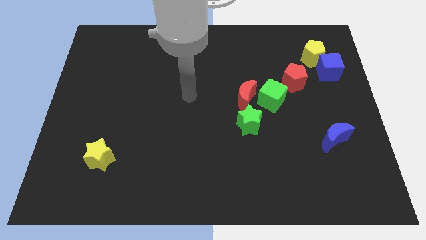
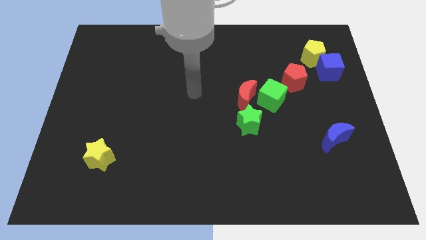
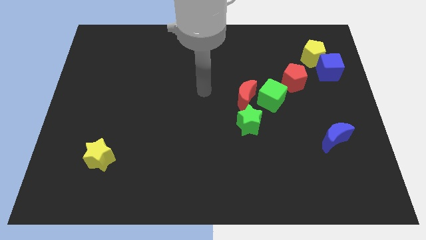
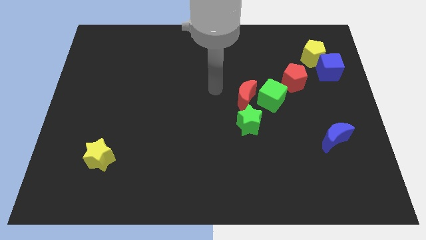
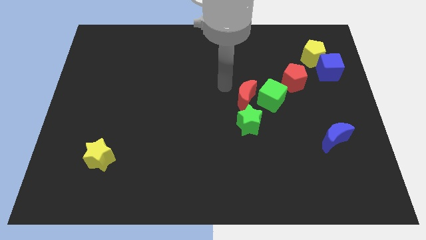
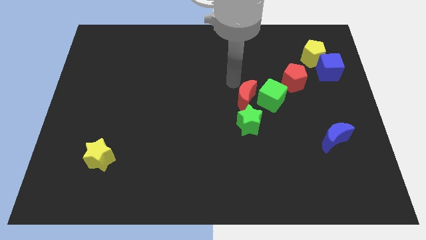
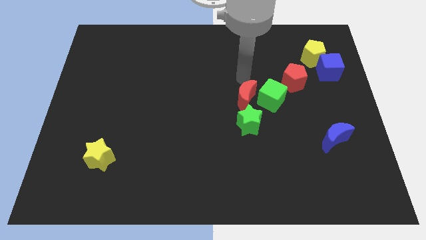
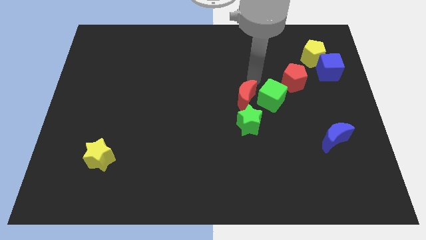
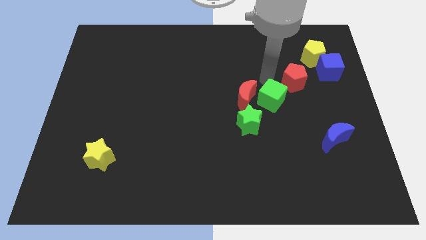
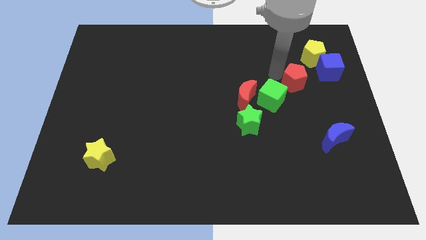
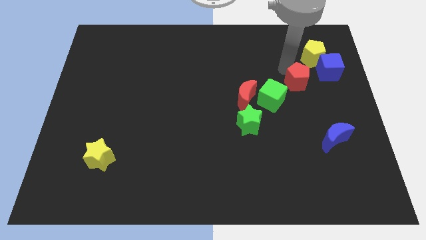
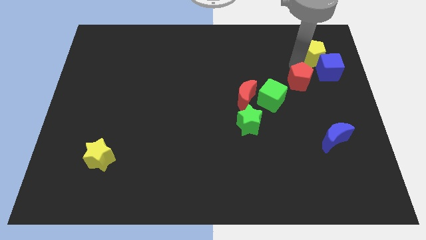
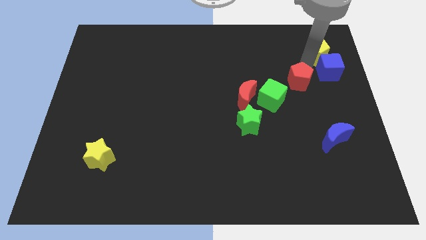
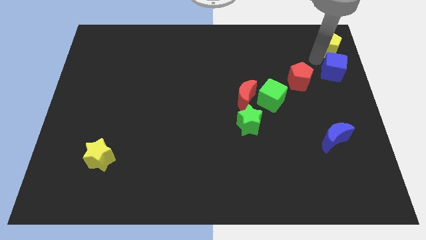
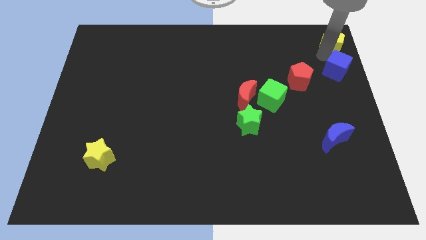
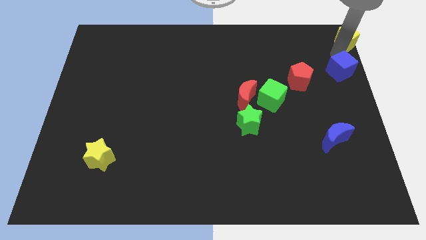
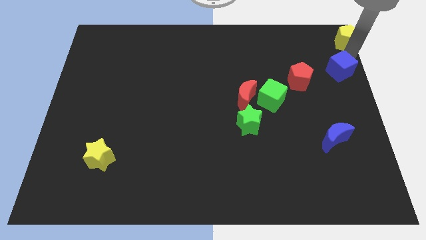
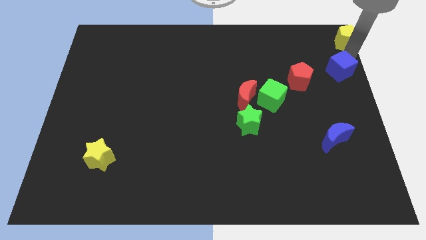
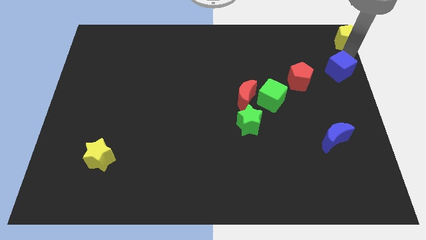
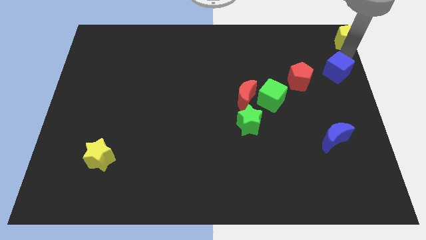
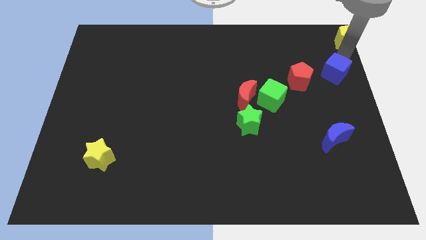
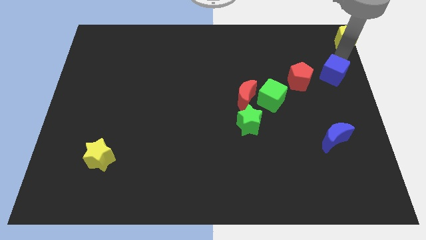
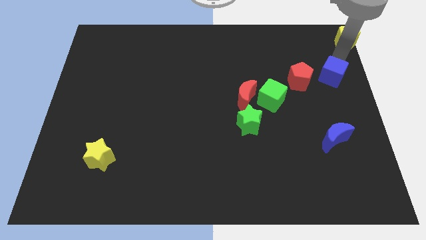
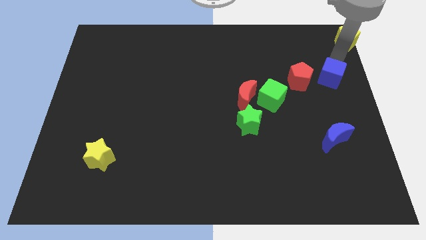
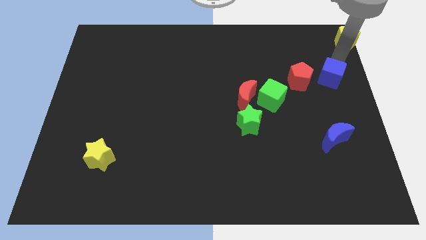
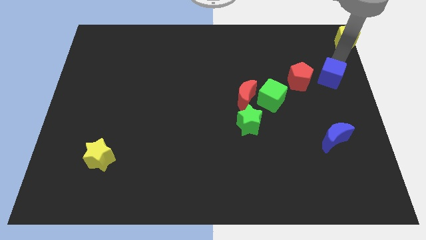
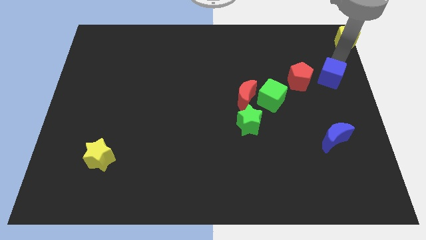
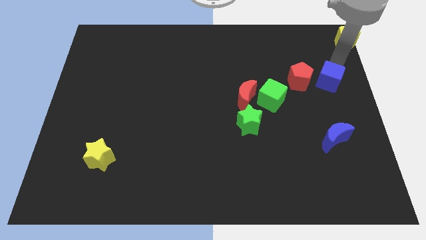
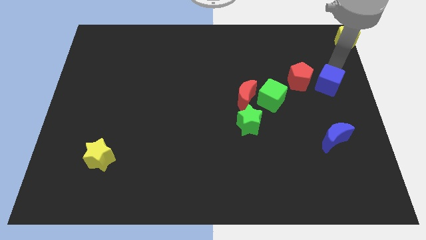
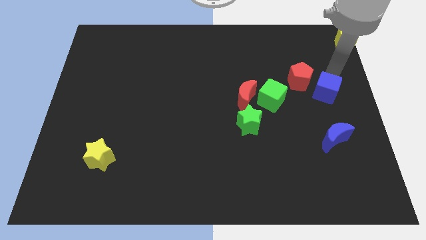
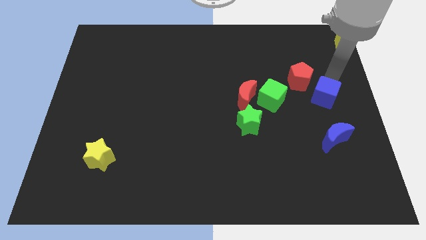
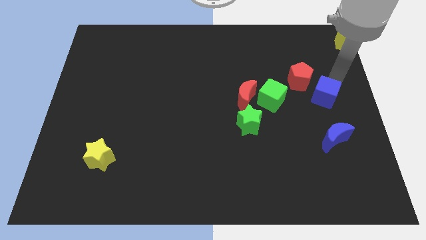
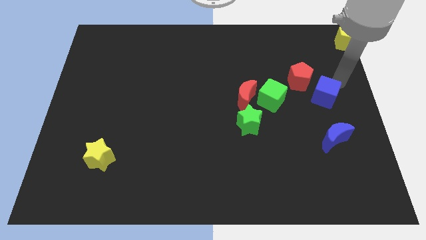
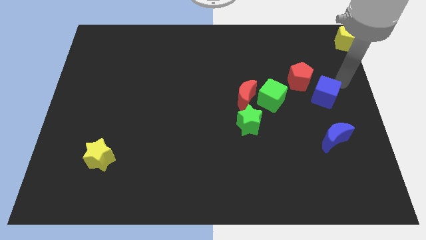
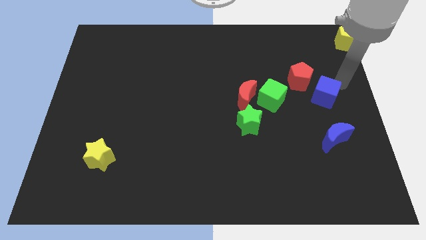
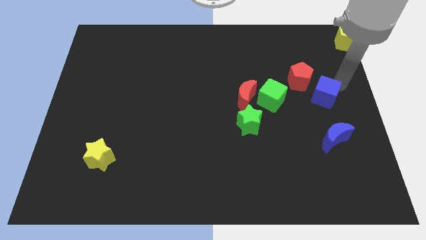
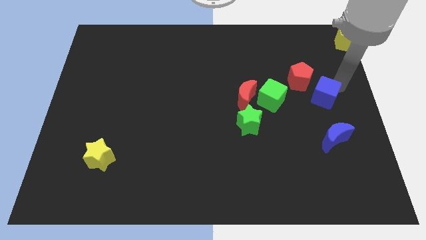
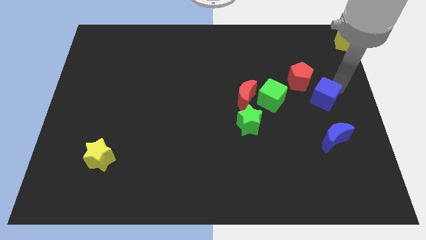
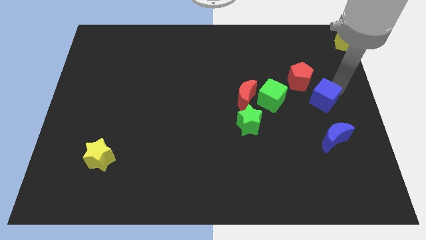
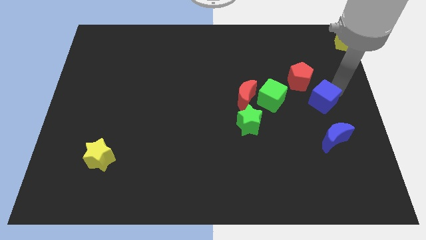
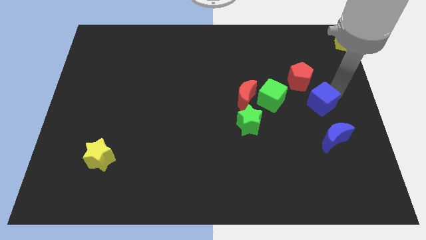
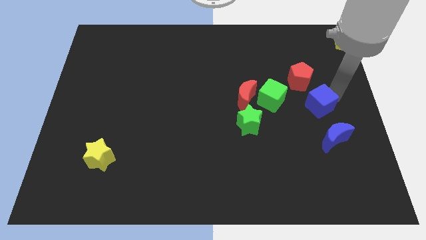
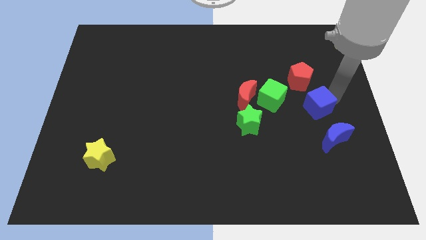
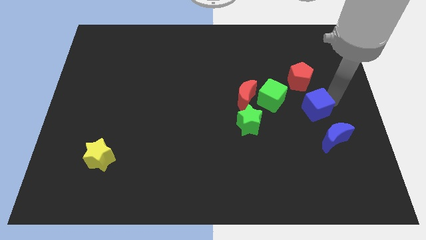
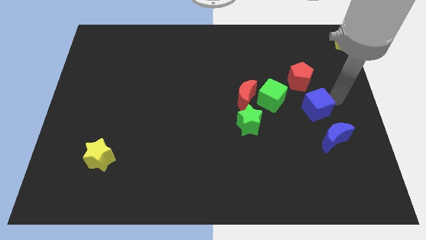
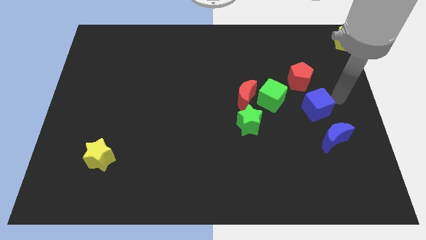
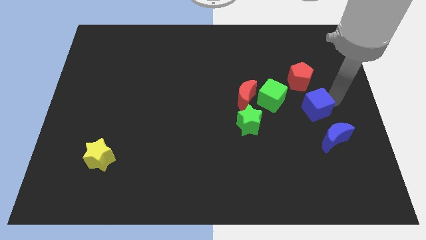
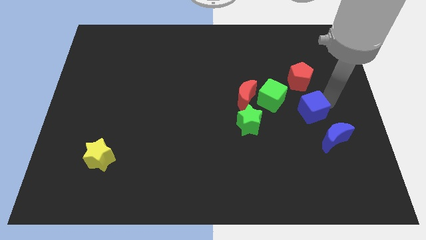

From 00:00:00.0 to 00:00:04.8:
put the blue cube to the bottom right of the green cube

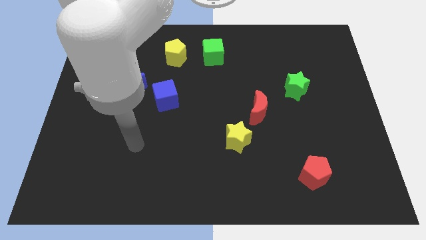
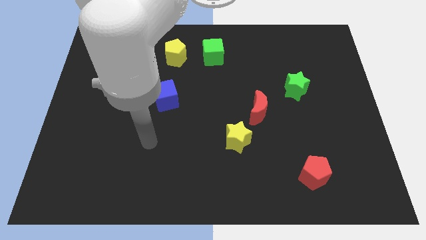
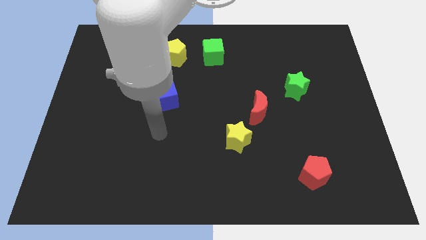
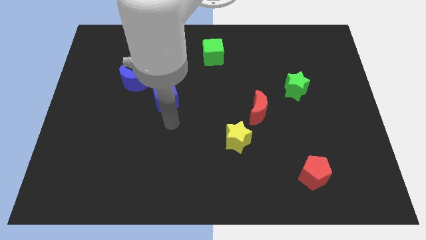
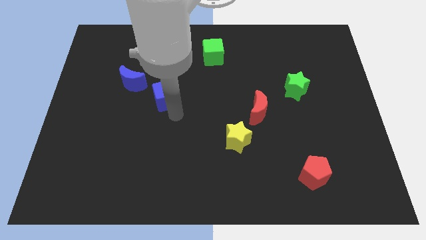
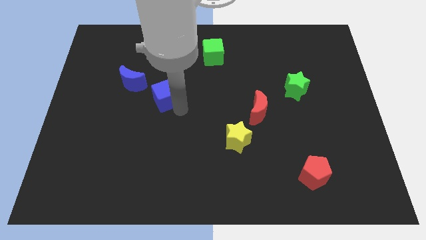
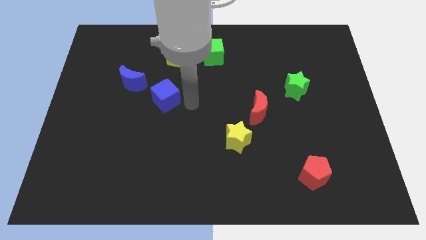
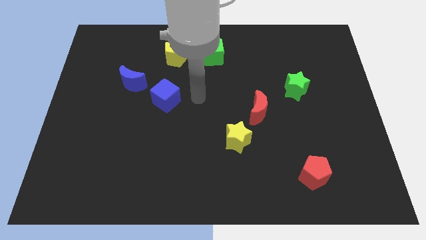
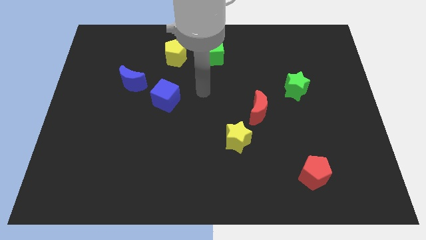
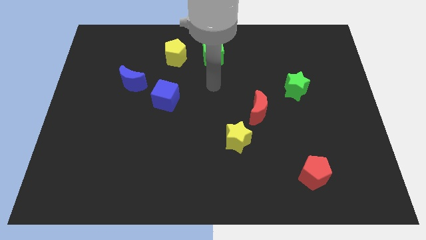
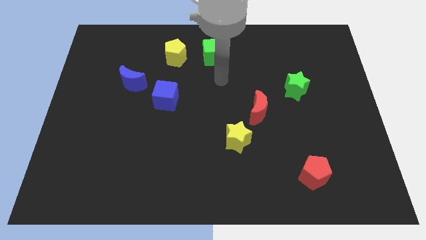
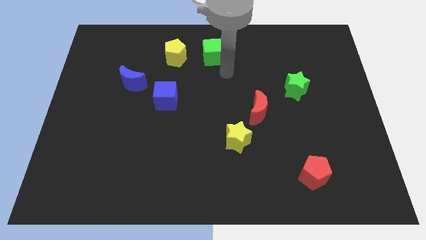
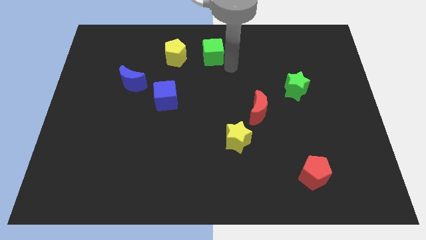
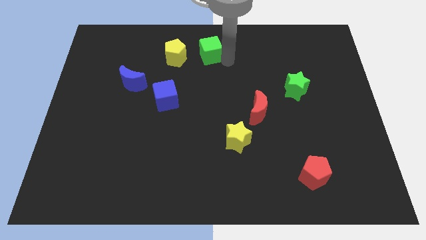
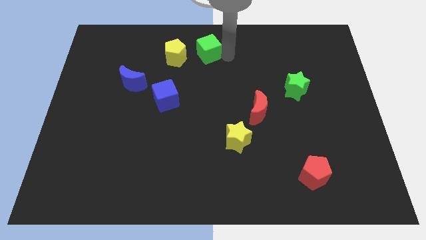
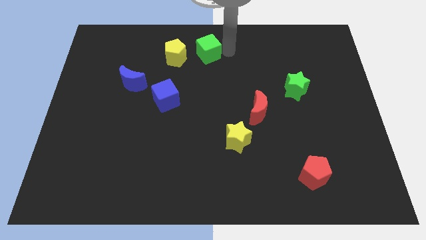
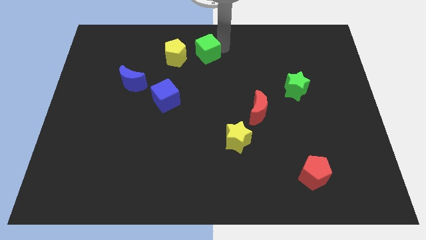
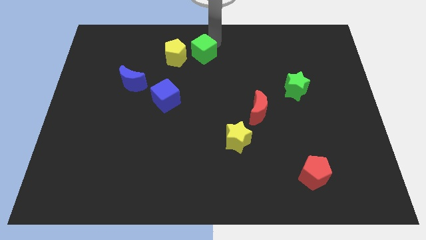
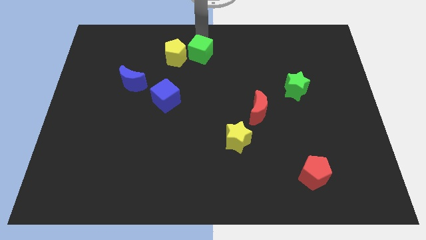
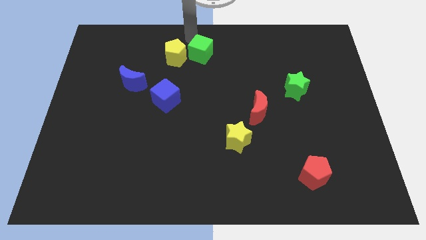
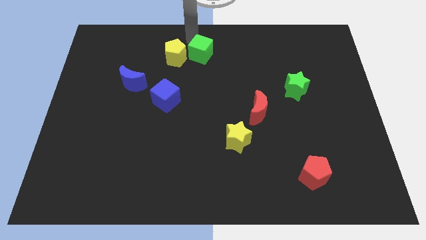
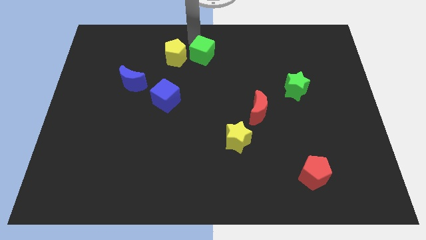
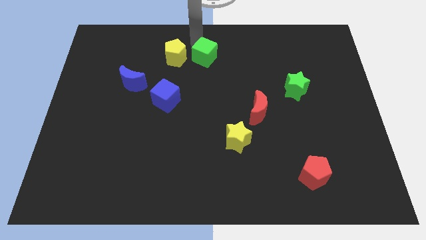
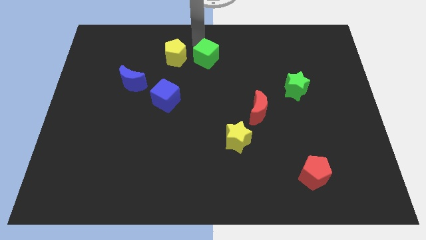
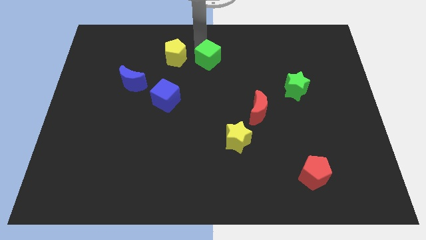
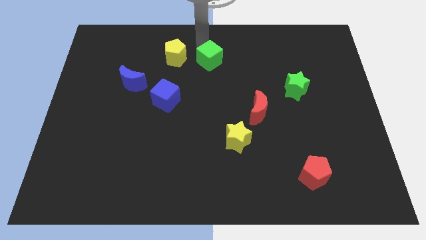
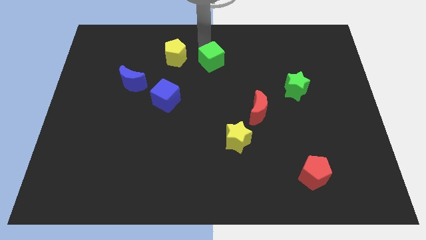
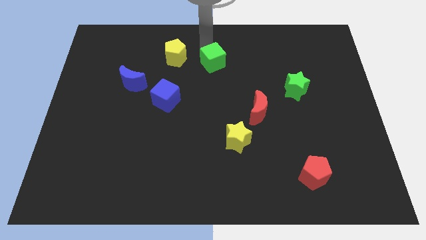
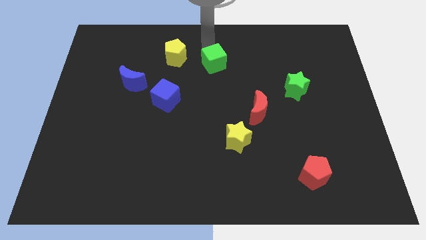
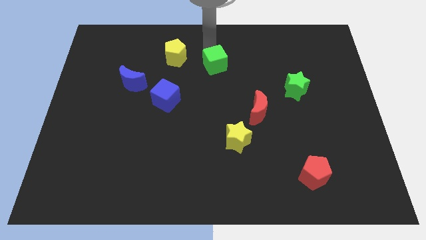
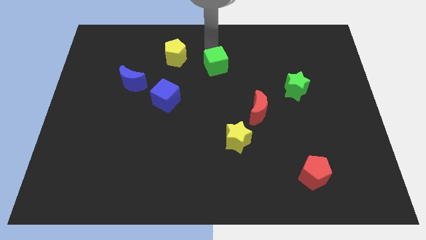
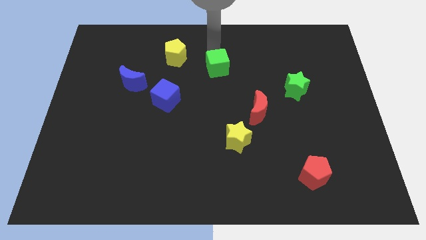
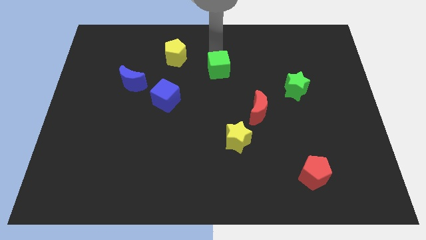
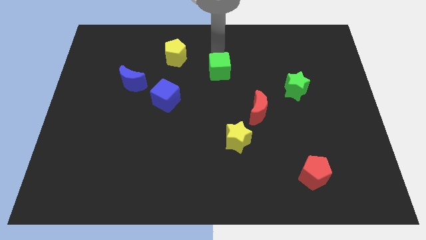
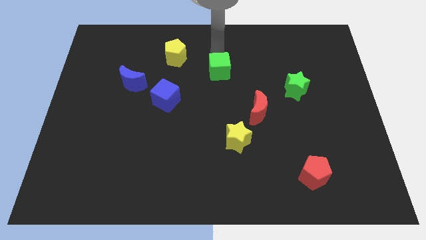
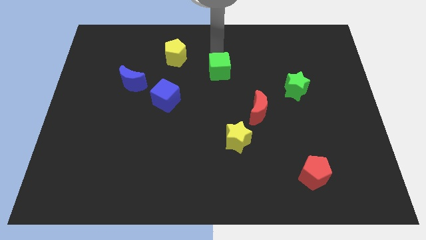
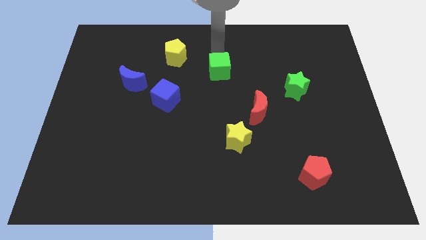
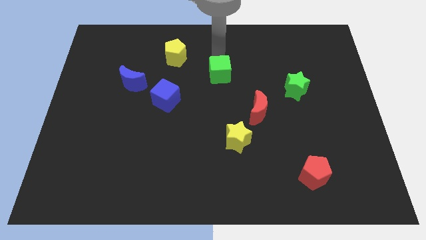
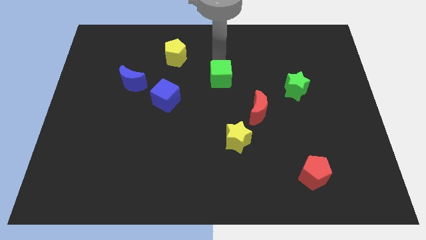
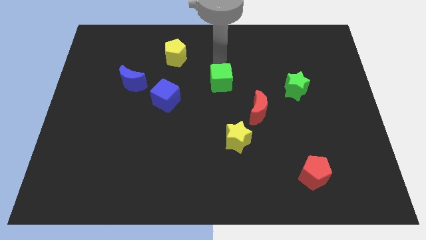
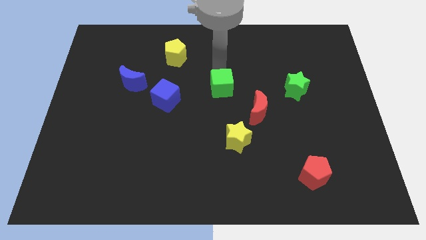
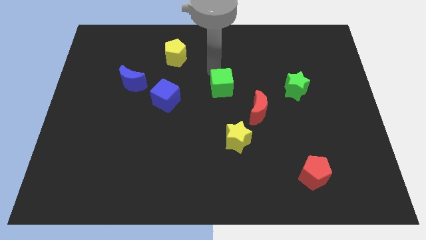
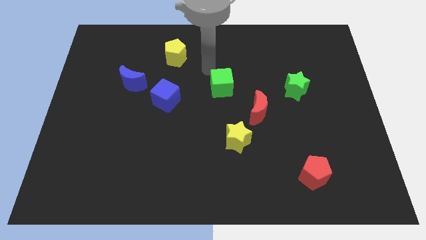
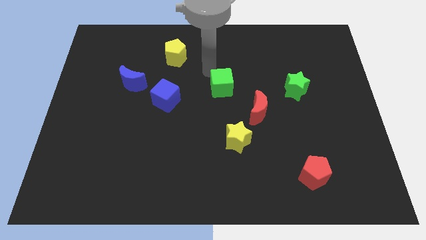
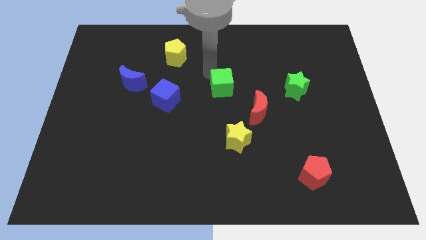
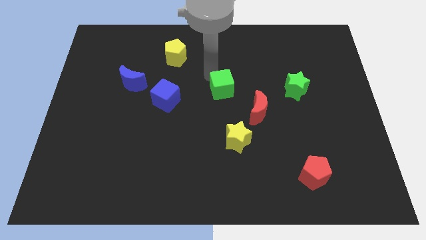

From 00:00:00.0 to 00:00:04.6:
push the green cube to the top of the yellow star
